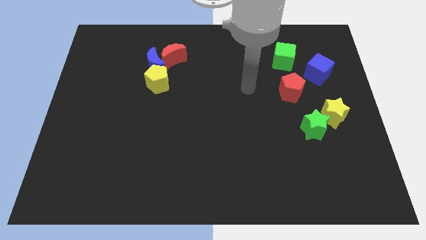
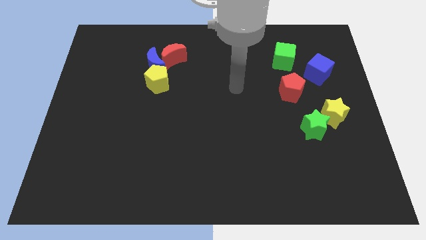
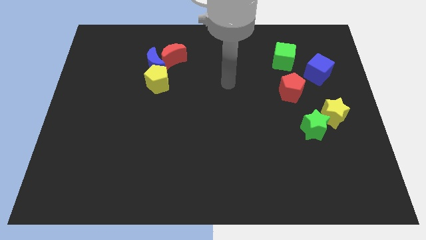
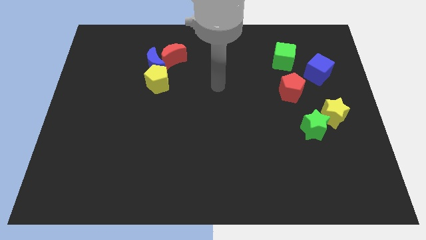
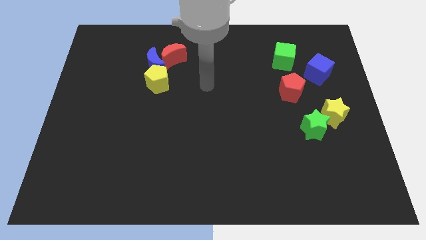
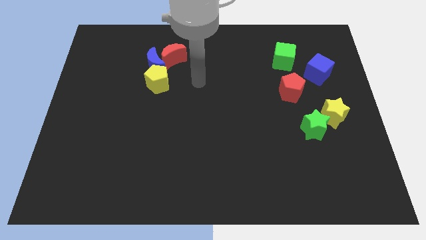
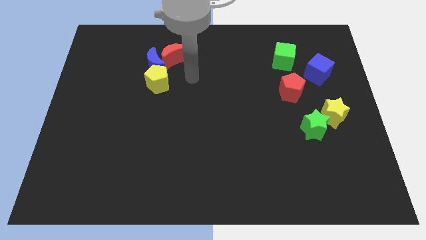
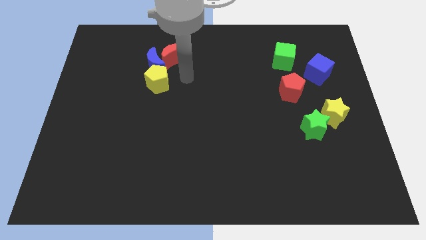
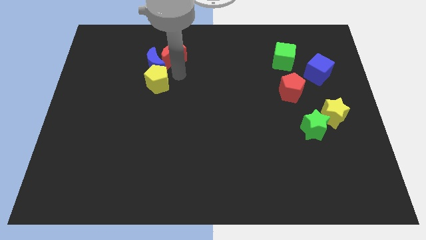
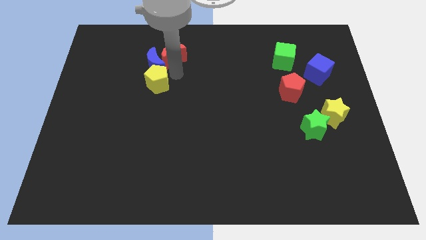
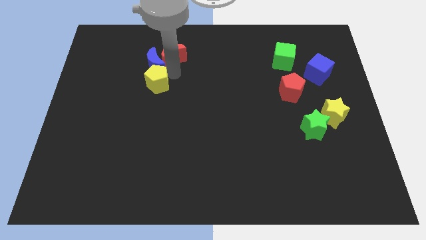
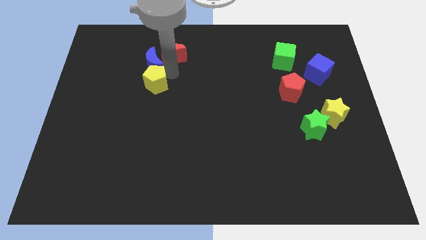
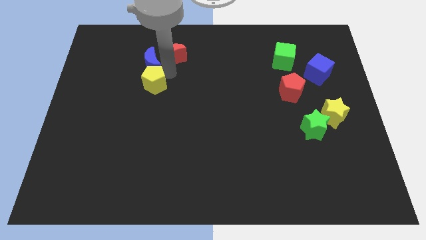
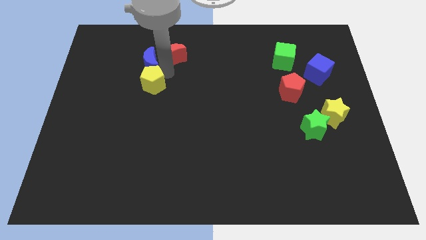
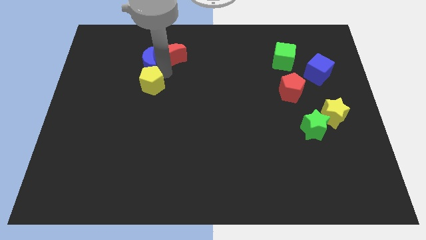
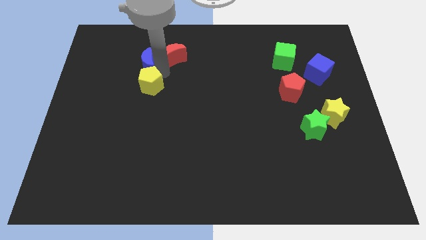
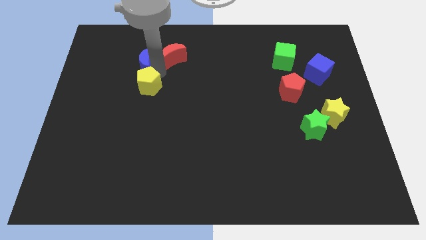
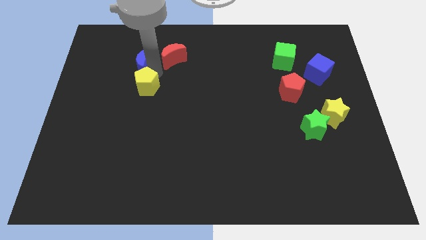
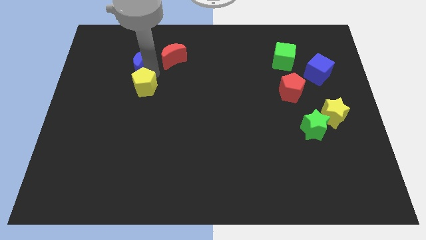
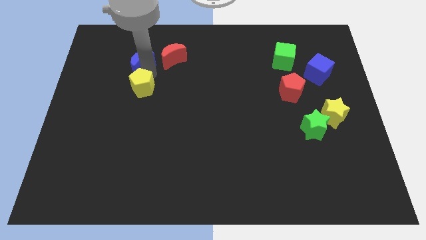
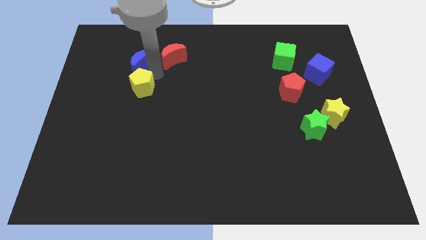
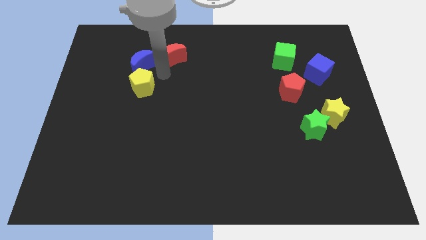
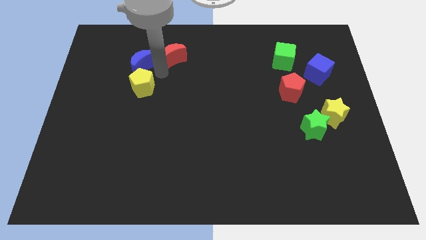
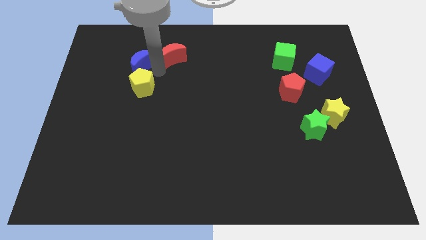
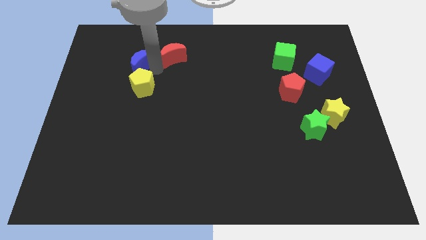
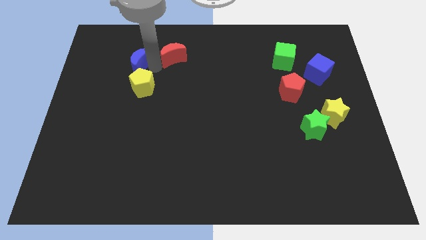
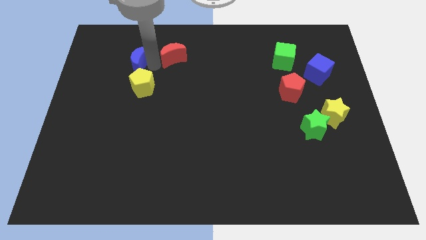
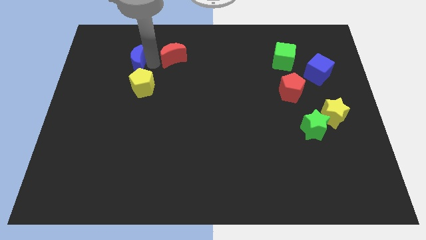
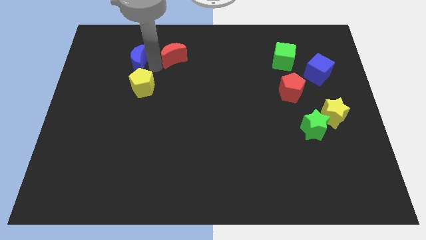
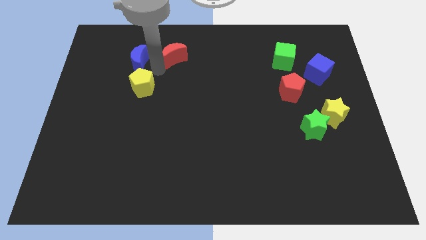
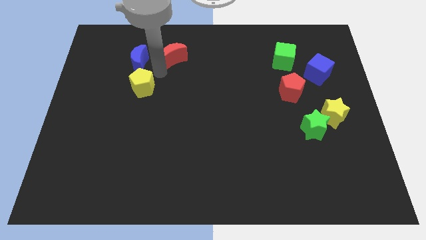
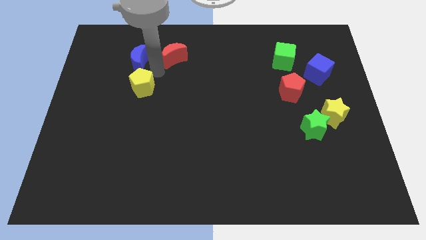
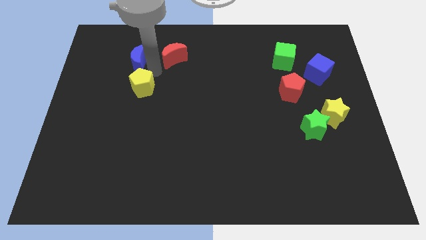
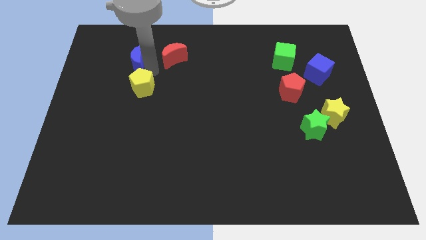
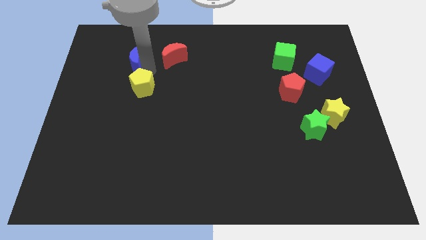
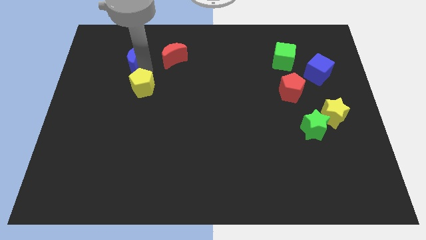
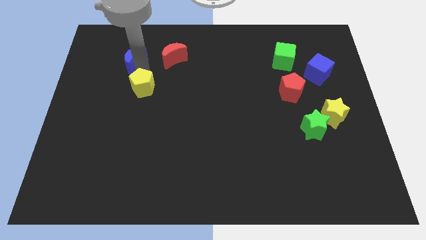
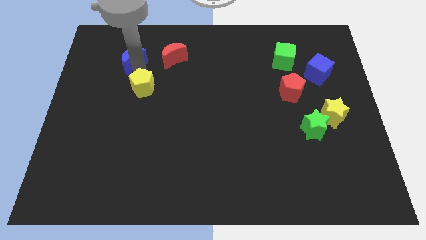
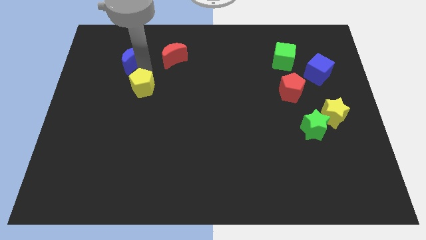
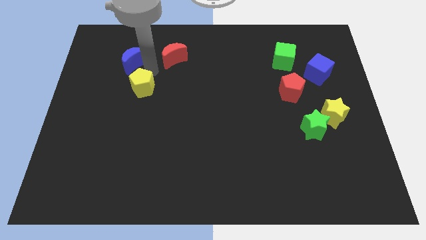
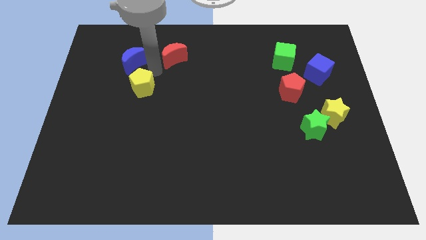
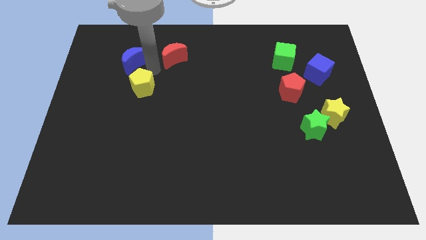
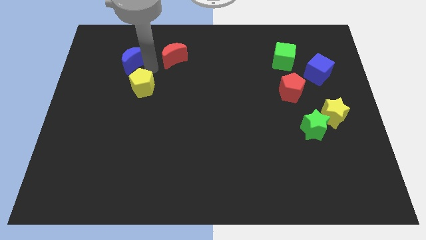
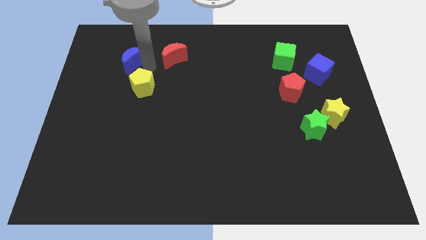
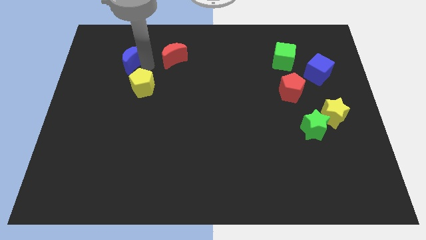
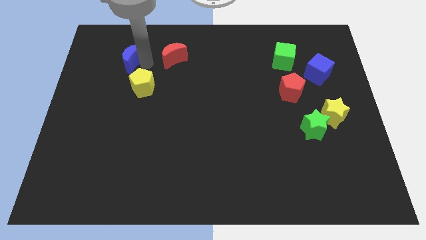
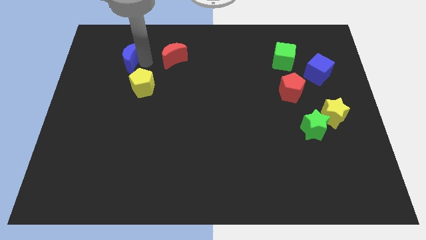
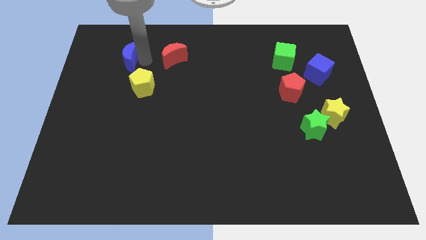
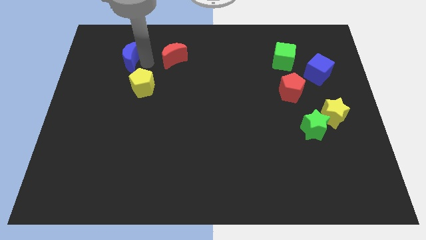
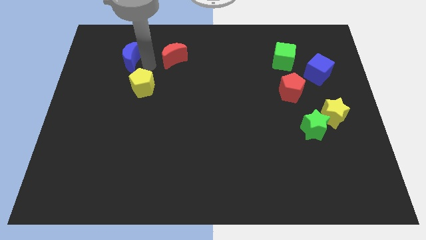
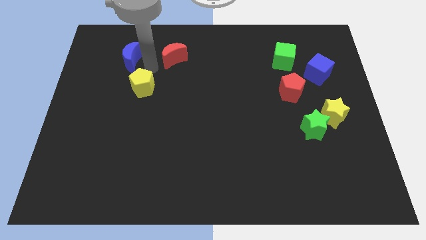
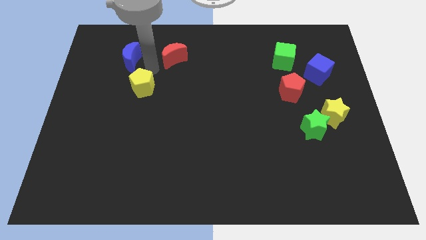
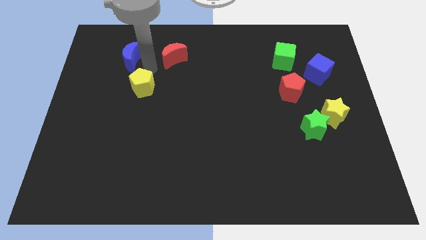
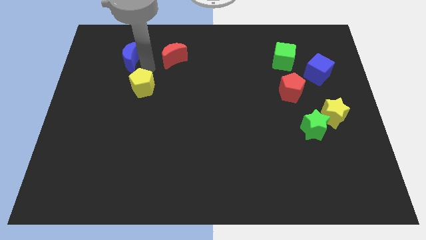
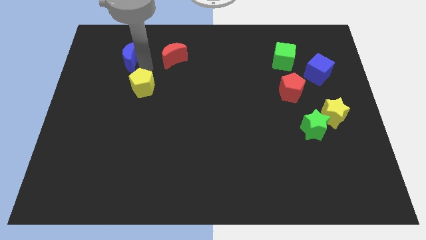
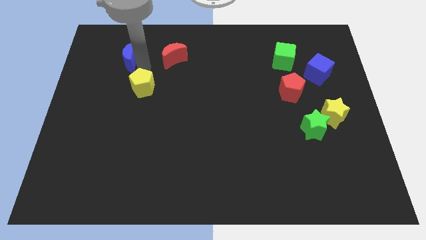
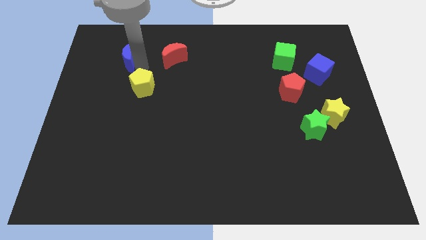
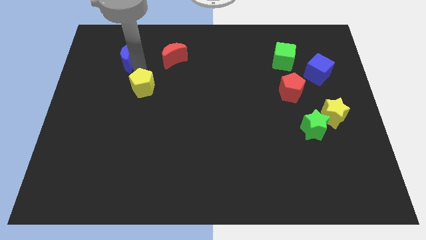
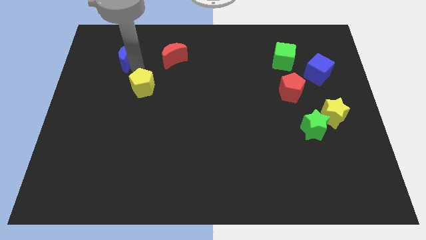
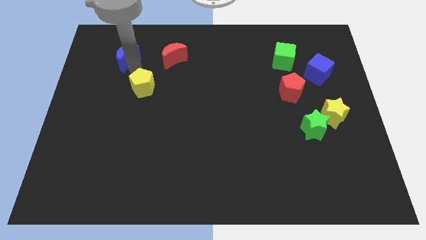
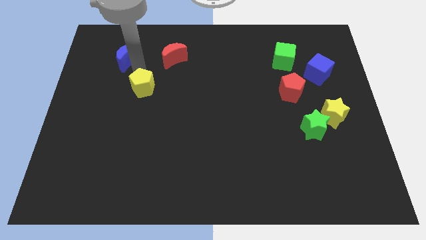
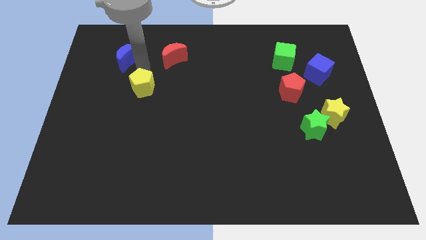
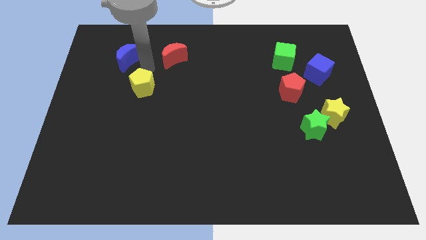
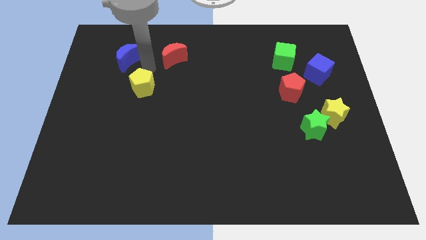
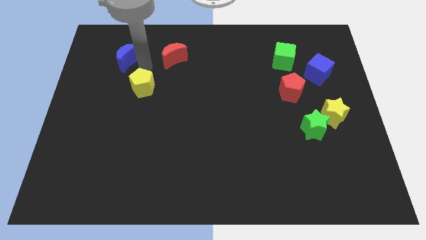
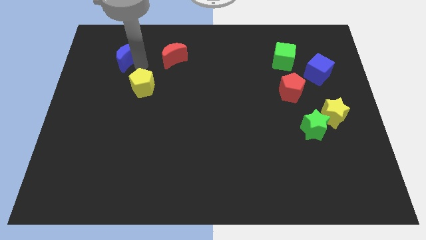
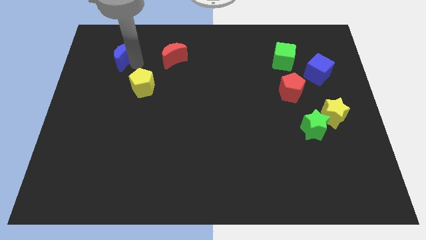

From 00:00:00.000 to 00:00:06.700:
pull the blue moon apart from the red moon and yellow pentagon

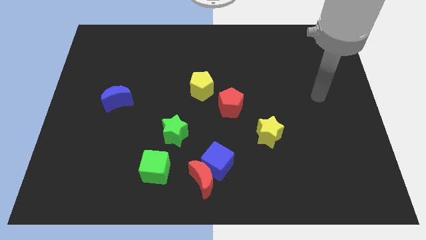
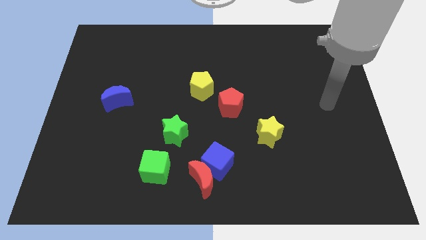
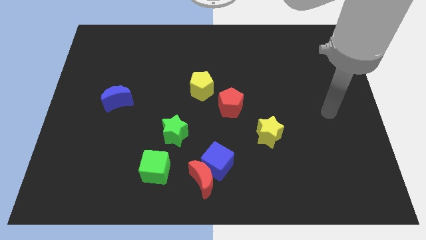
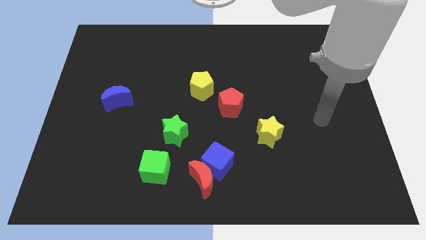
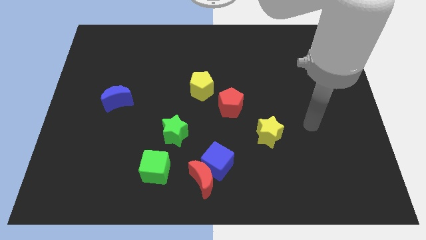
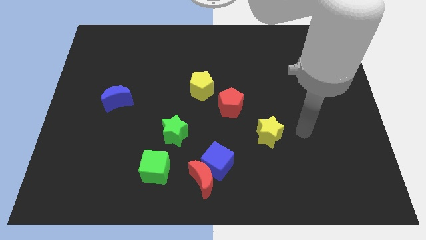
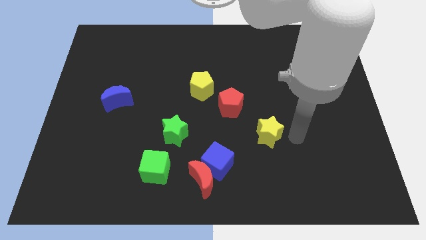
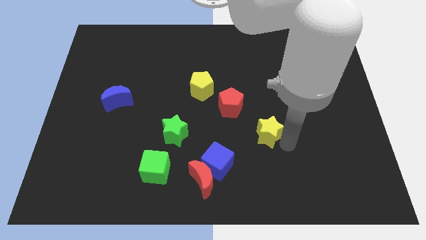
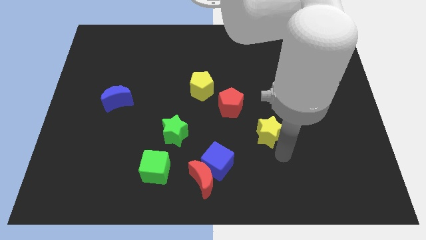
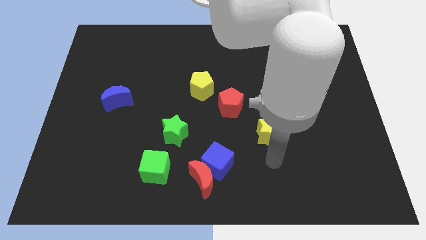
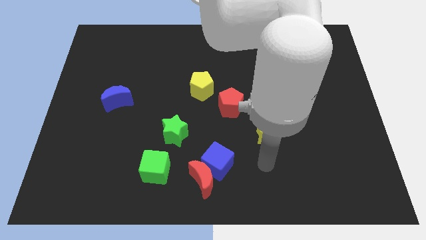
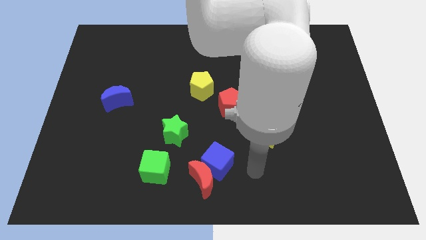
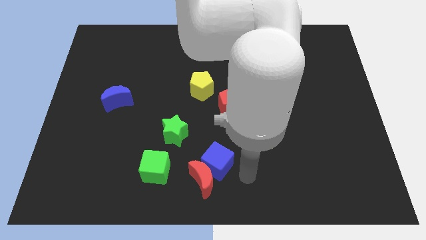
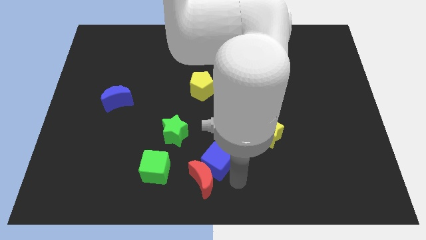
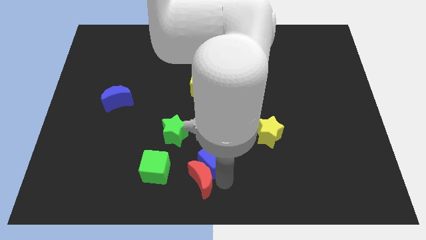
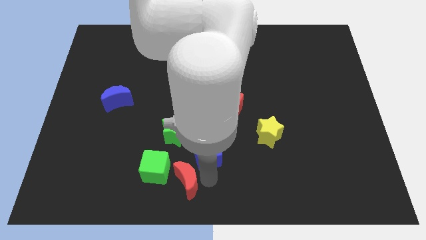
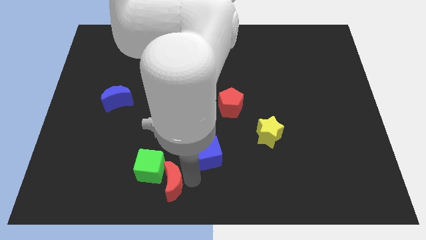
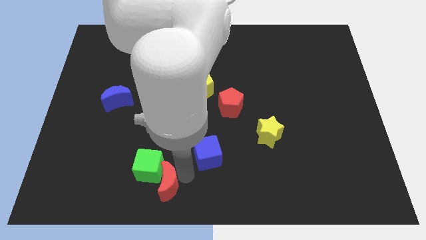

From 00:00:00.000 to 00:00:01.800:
move the blue cube away from the red moon

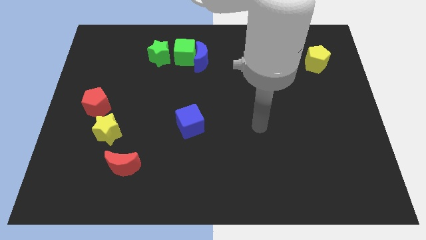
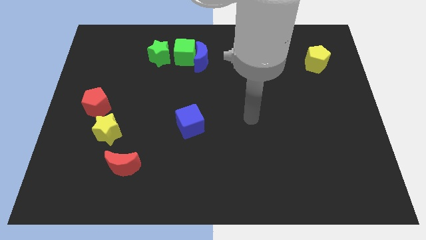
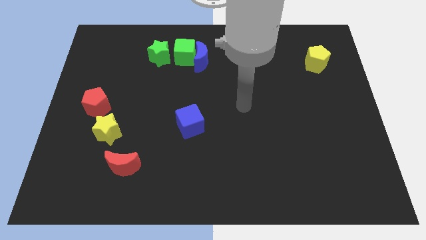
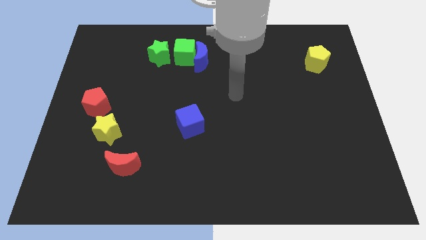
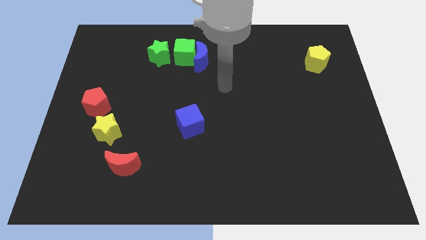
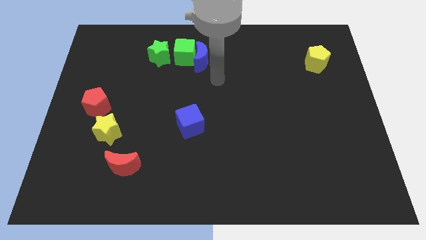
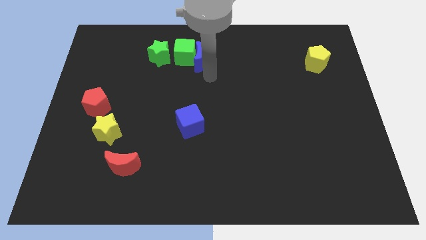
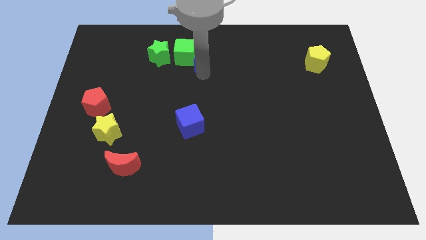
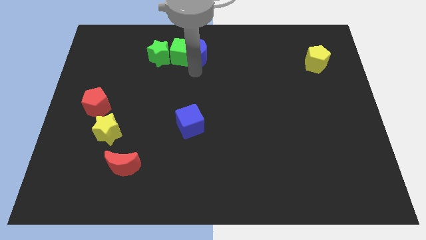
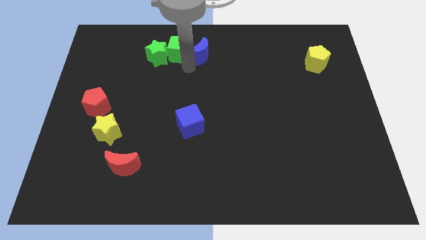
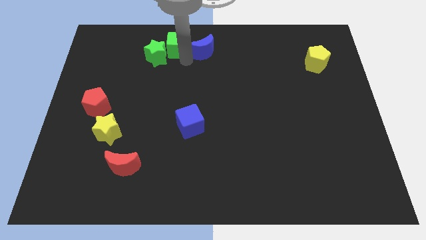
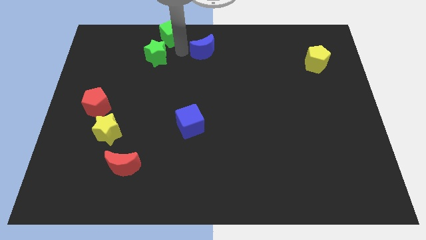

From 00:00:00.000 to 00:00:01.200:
pull the blue moon apart from the green cube
